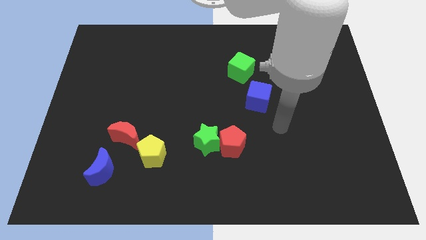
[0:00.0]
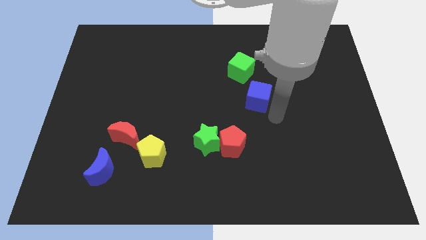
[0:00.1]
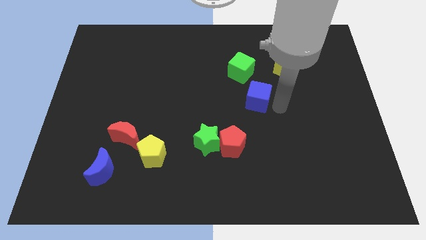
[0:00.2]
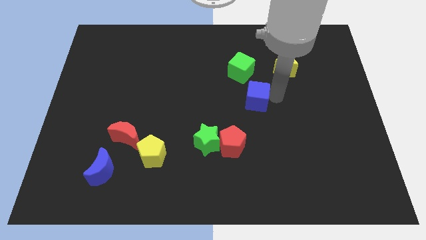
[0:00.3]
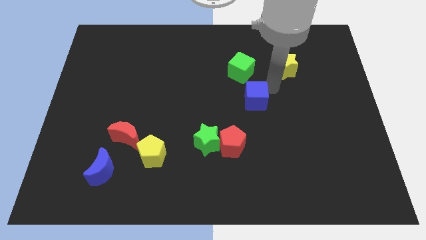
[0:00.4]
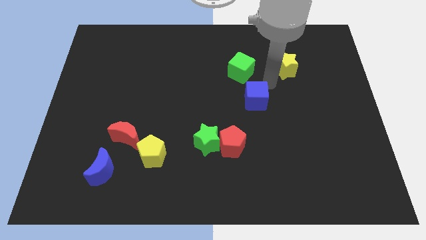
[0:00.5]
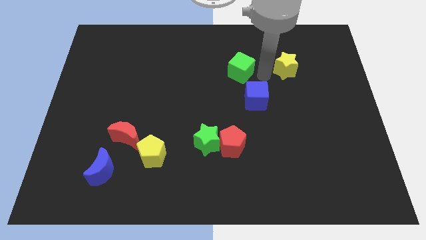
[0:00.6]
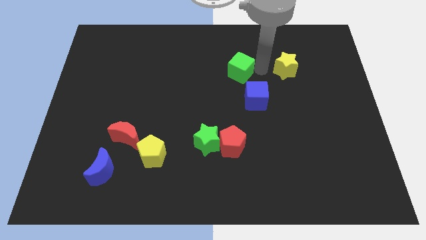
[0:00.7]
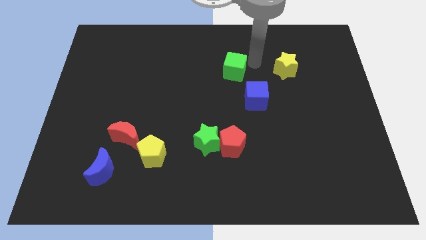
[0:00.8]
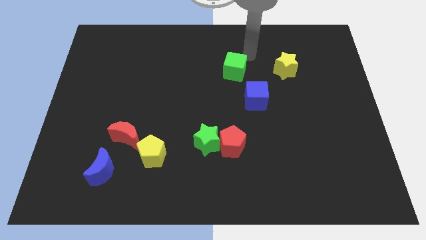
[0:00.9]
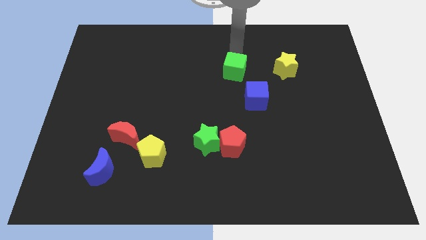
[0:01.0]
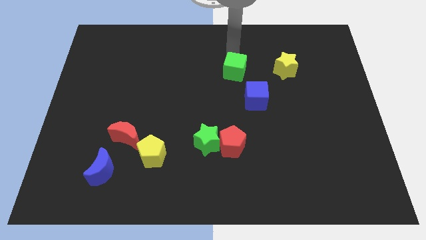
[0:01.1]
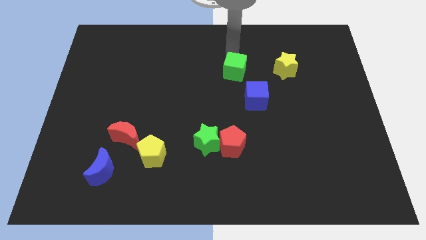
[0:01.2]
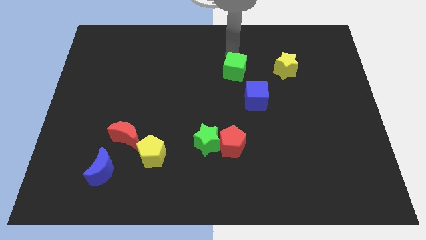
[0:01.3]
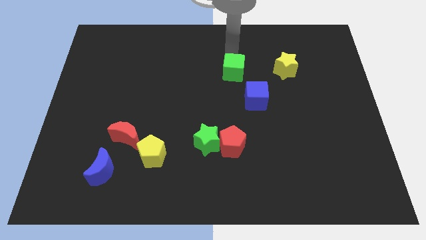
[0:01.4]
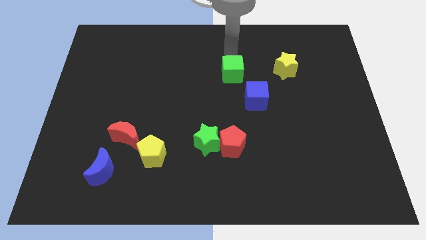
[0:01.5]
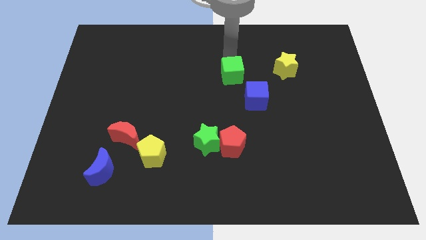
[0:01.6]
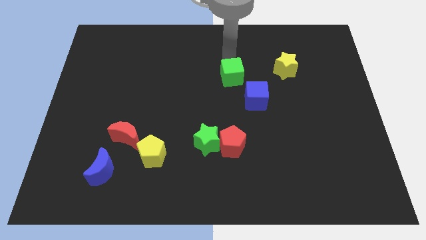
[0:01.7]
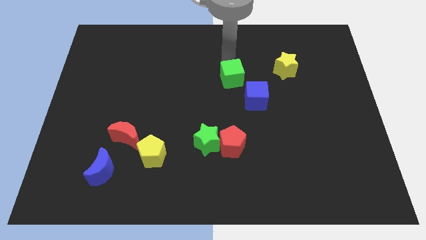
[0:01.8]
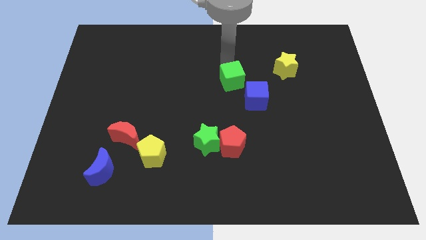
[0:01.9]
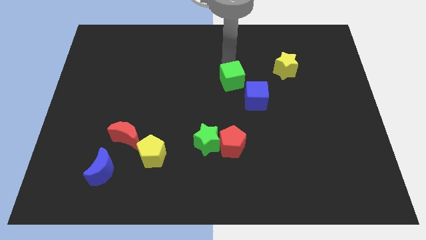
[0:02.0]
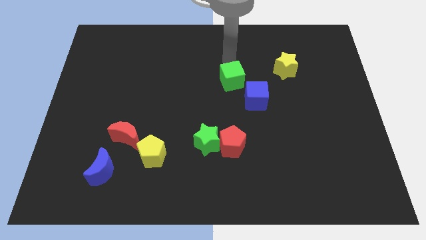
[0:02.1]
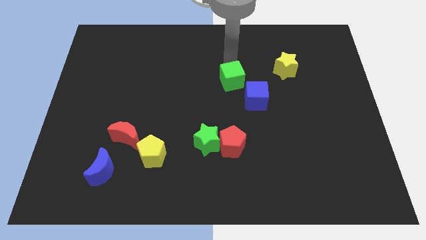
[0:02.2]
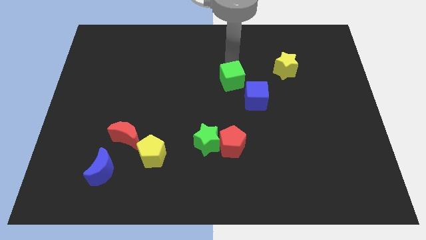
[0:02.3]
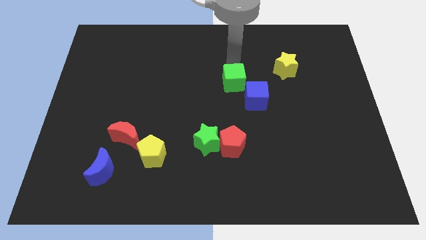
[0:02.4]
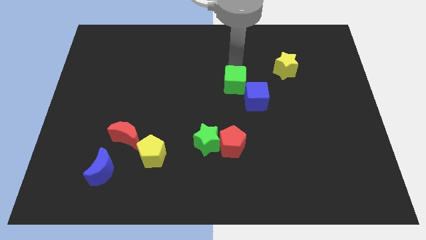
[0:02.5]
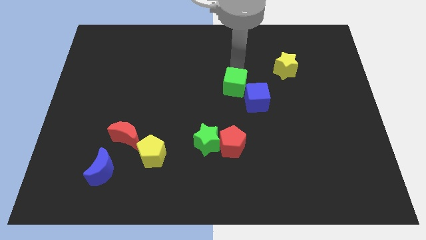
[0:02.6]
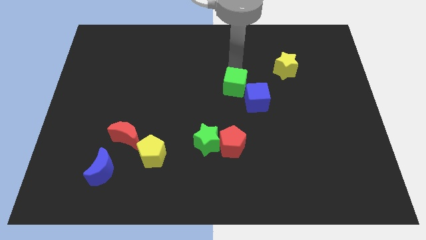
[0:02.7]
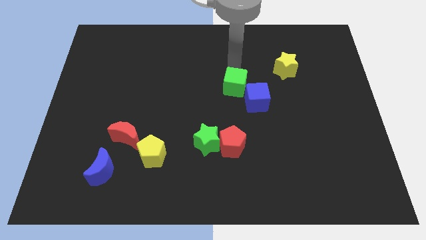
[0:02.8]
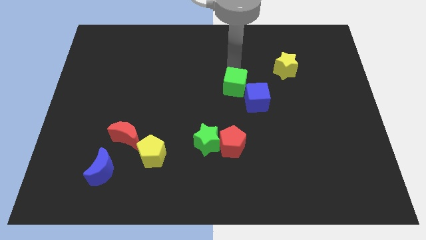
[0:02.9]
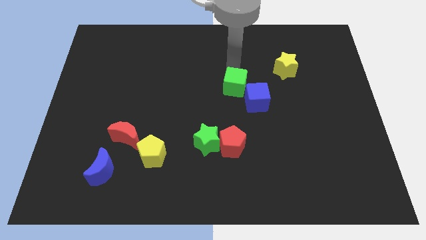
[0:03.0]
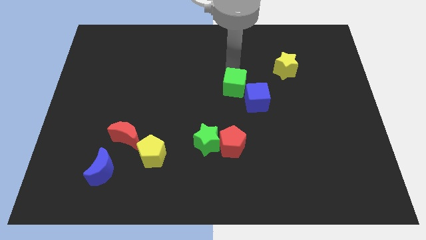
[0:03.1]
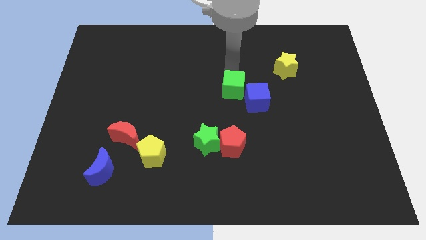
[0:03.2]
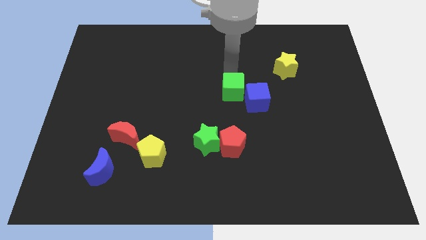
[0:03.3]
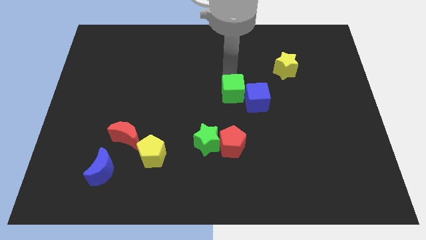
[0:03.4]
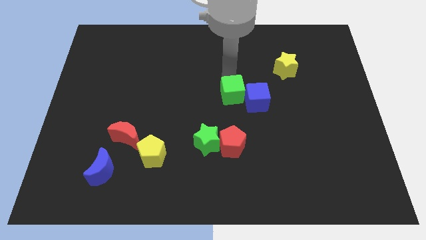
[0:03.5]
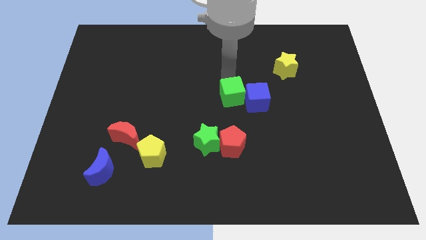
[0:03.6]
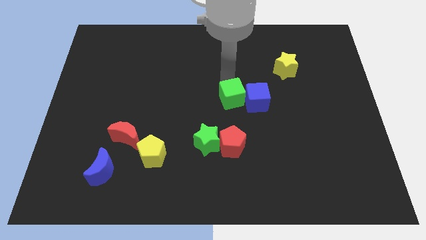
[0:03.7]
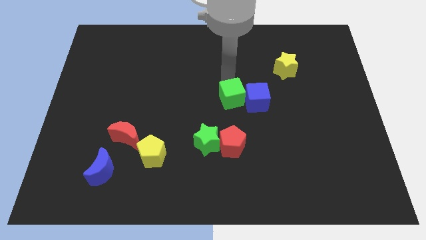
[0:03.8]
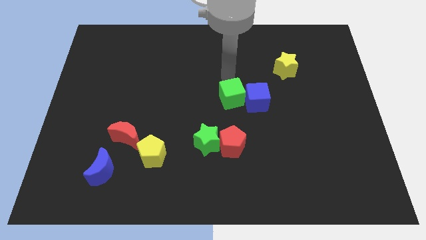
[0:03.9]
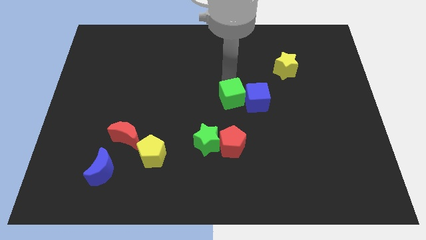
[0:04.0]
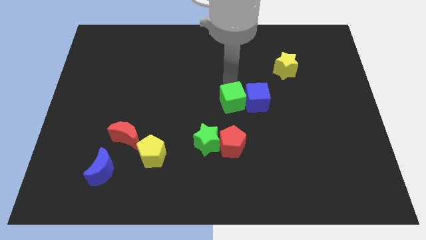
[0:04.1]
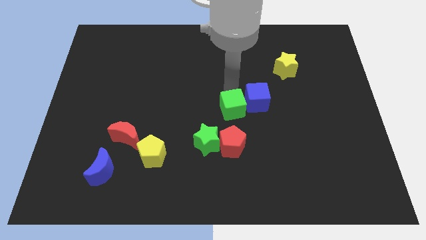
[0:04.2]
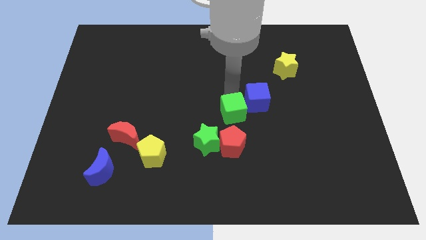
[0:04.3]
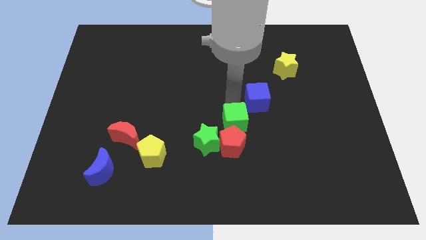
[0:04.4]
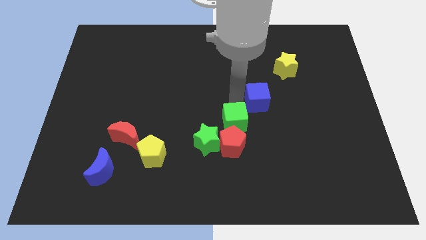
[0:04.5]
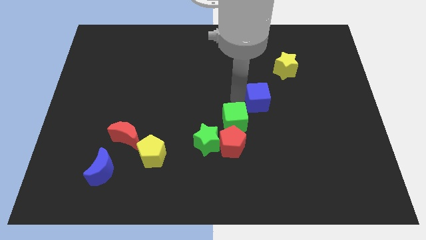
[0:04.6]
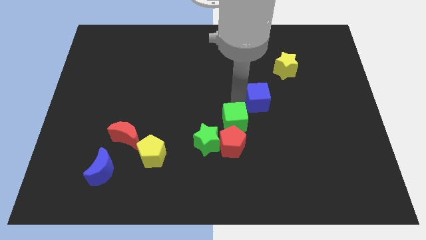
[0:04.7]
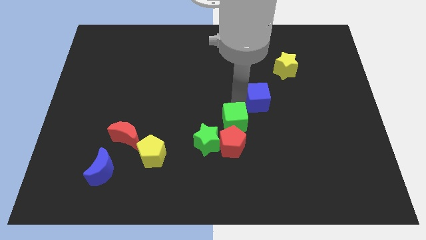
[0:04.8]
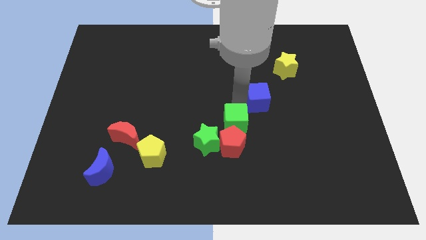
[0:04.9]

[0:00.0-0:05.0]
push the green cube close to the red pentagon

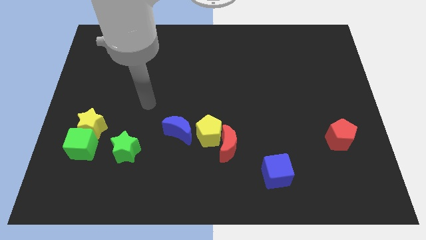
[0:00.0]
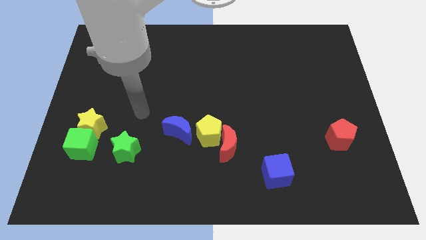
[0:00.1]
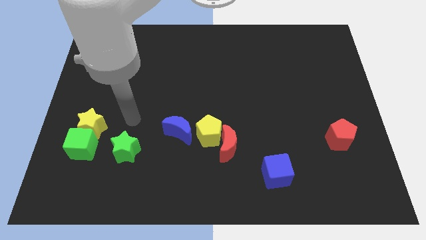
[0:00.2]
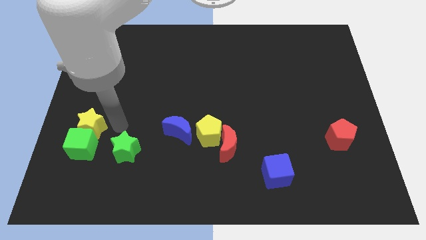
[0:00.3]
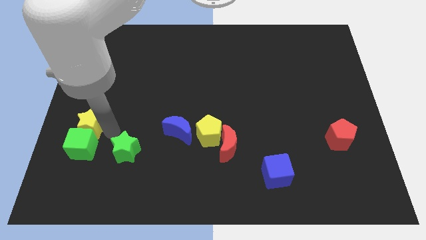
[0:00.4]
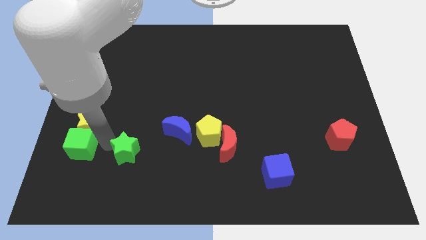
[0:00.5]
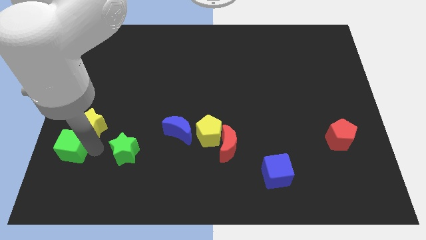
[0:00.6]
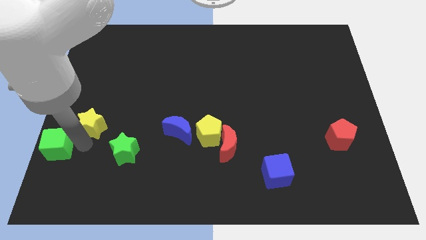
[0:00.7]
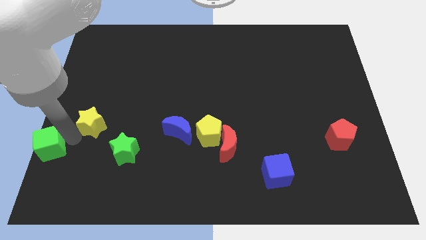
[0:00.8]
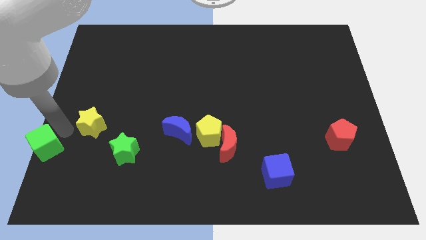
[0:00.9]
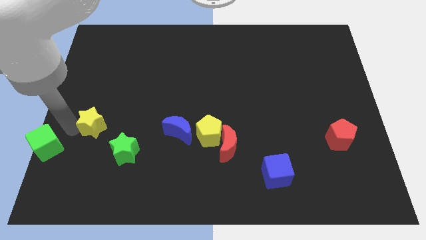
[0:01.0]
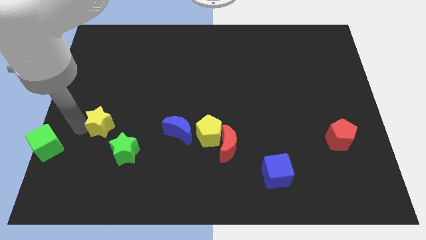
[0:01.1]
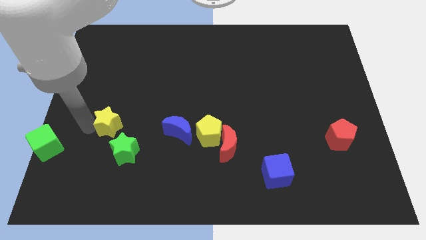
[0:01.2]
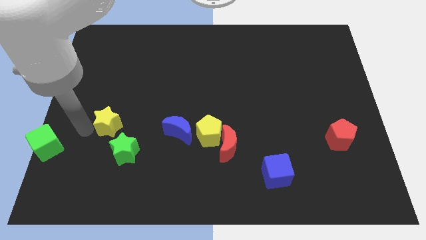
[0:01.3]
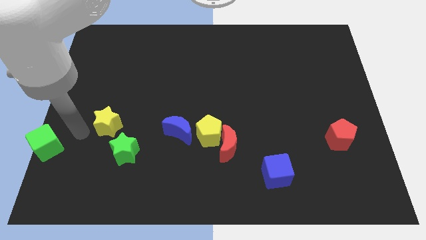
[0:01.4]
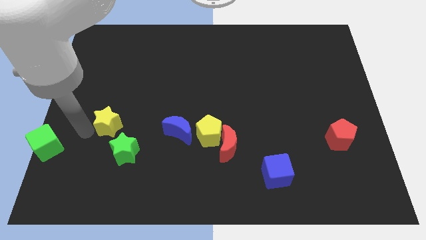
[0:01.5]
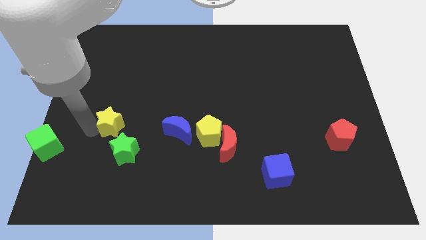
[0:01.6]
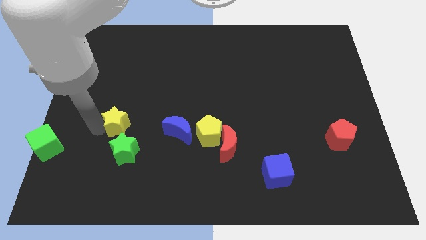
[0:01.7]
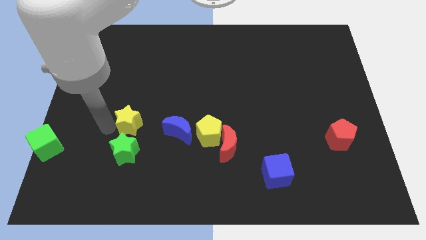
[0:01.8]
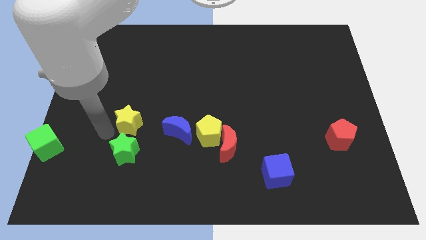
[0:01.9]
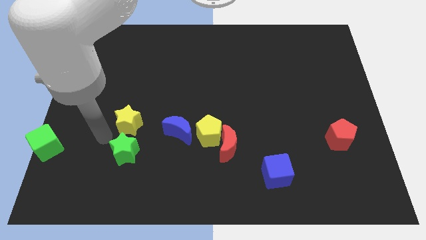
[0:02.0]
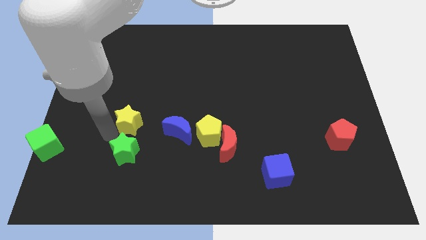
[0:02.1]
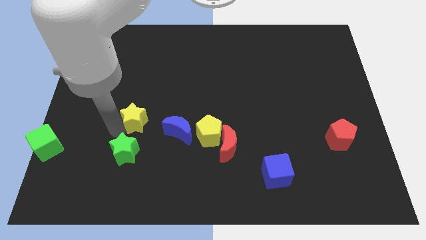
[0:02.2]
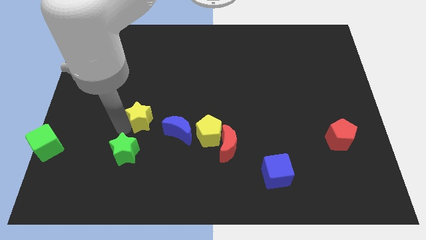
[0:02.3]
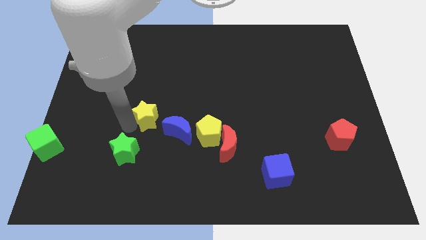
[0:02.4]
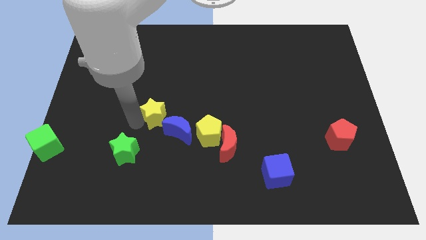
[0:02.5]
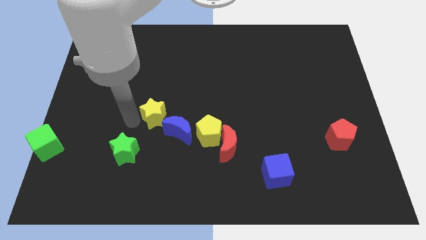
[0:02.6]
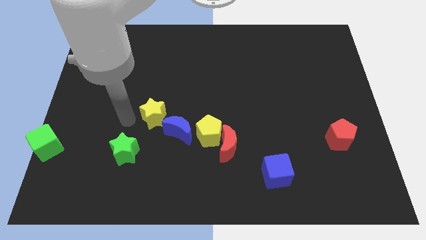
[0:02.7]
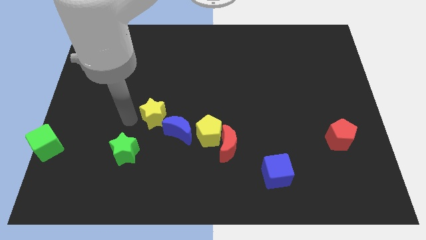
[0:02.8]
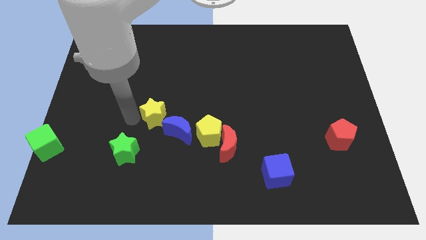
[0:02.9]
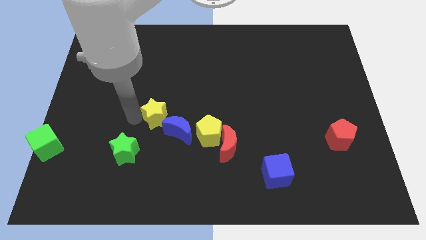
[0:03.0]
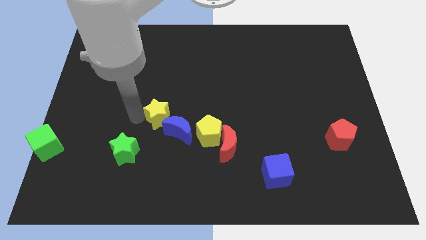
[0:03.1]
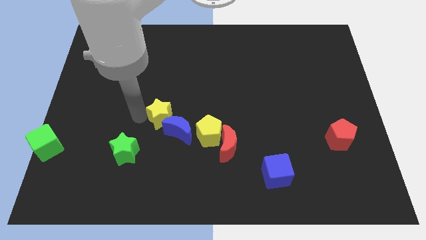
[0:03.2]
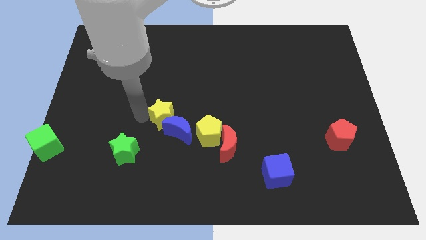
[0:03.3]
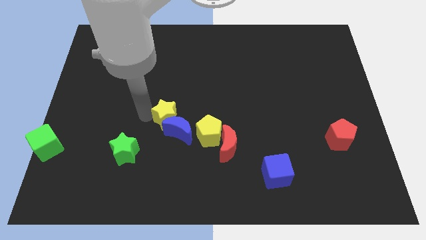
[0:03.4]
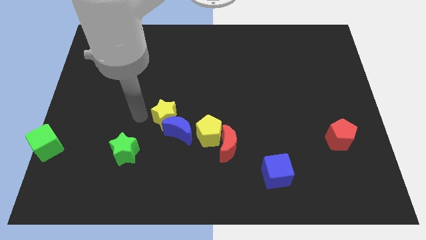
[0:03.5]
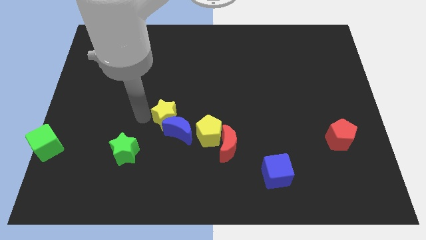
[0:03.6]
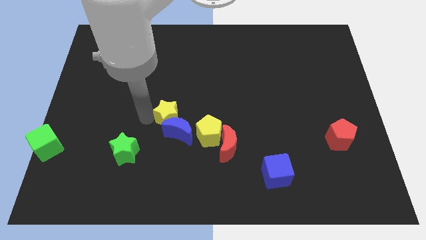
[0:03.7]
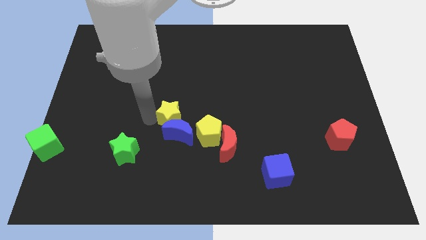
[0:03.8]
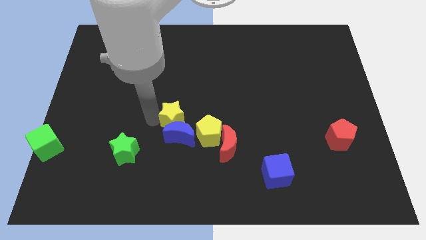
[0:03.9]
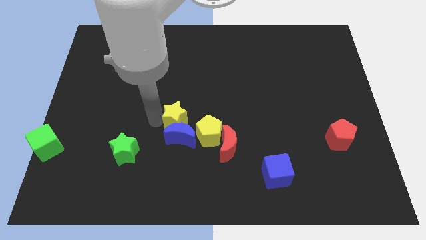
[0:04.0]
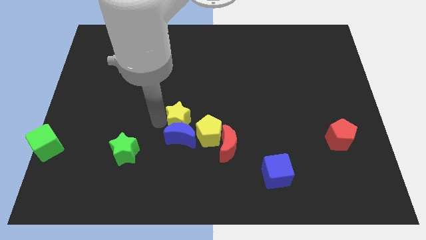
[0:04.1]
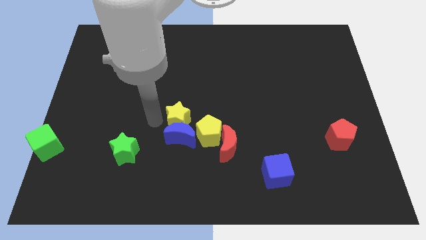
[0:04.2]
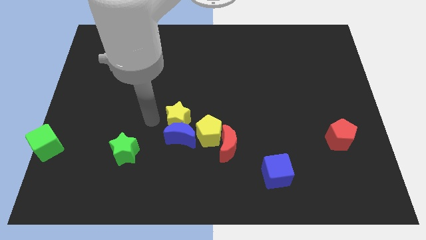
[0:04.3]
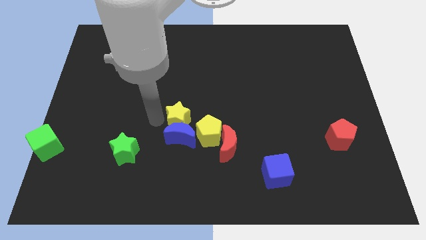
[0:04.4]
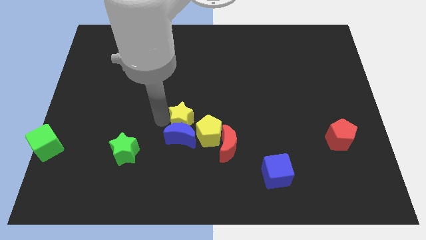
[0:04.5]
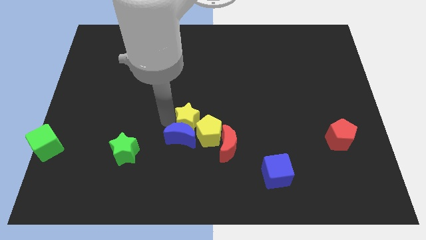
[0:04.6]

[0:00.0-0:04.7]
slide the yellow star to the yellow pentagon
